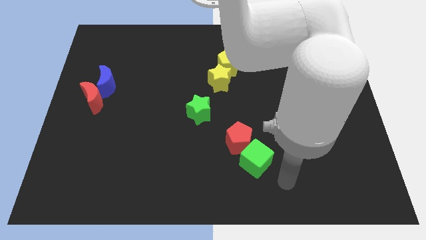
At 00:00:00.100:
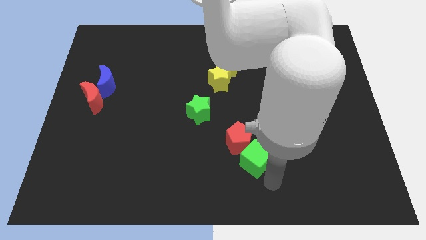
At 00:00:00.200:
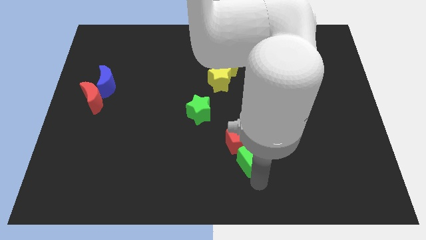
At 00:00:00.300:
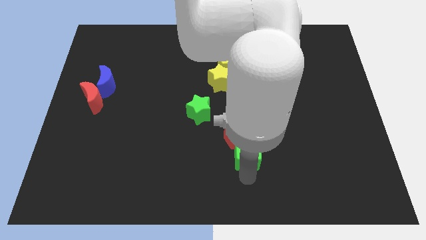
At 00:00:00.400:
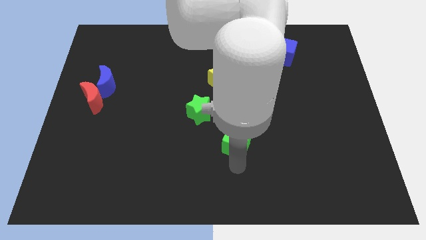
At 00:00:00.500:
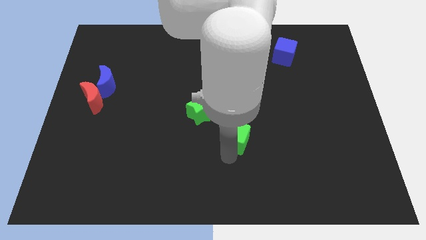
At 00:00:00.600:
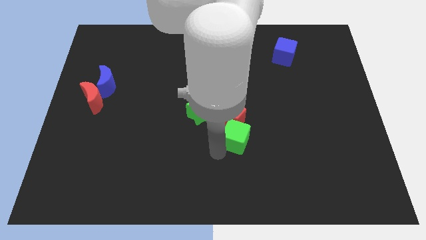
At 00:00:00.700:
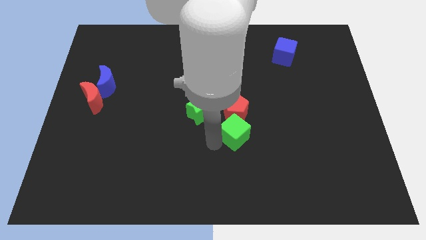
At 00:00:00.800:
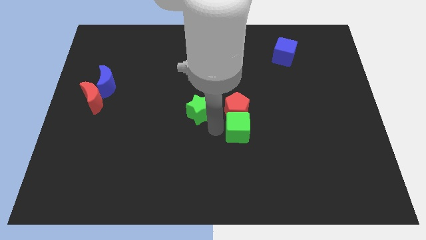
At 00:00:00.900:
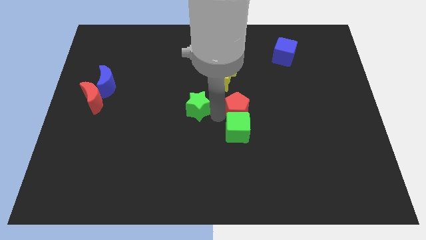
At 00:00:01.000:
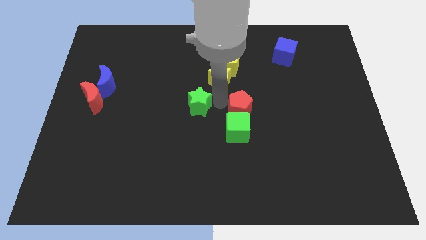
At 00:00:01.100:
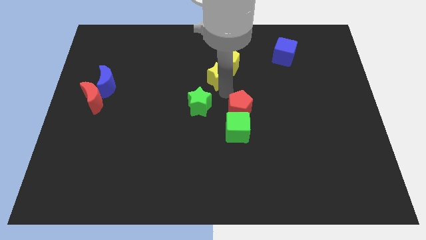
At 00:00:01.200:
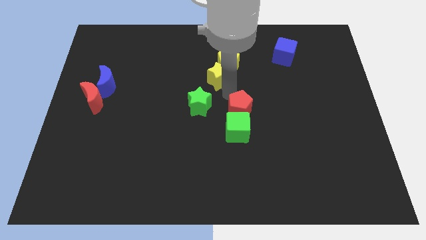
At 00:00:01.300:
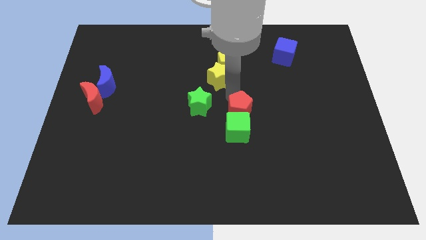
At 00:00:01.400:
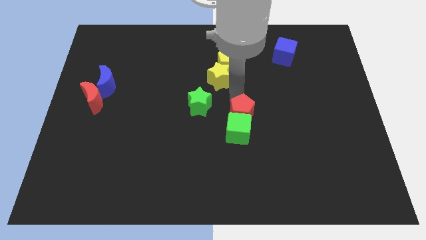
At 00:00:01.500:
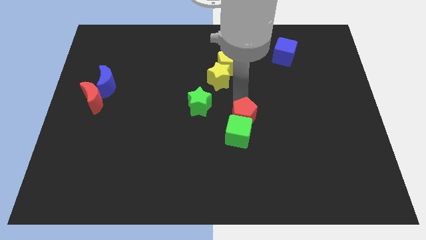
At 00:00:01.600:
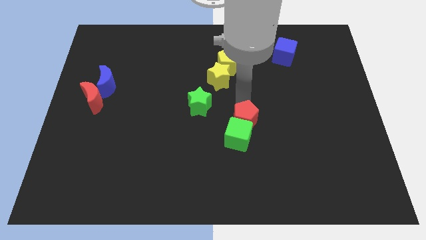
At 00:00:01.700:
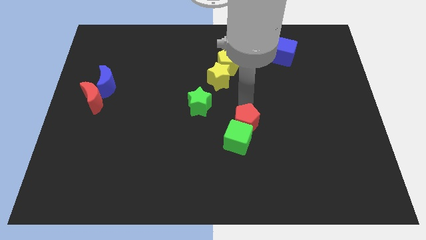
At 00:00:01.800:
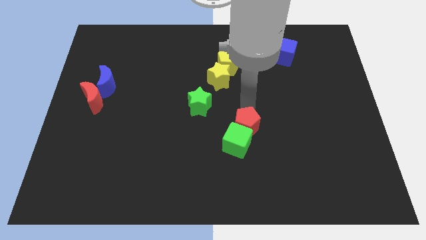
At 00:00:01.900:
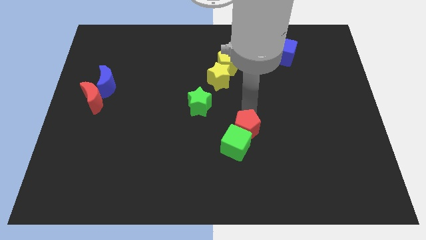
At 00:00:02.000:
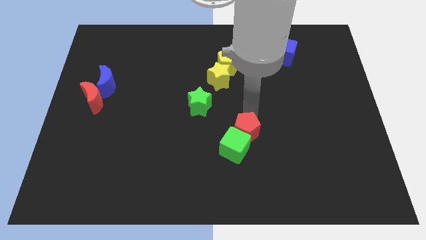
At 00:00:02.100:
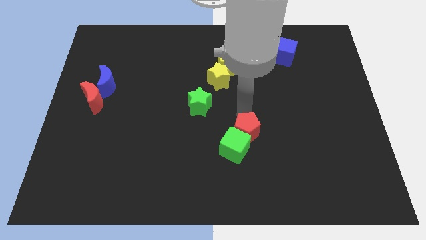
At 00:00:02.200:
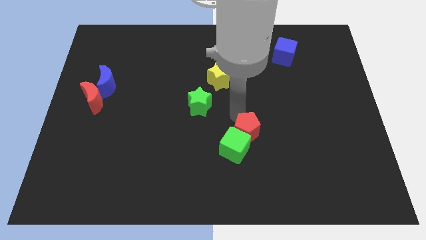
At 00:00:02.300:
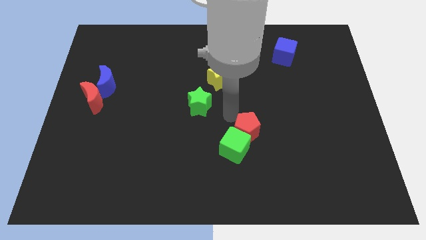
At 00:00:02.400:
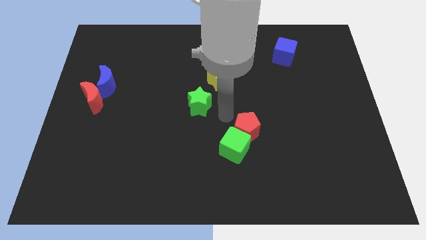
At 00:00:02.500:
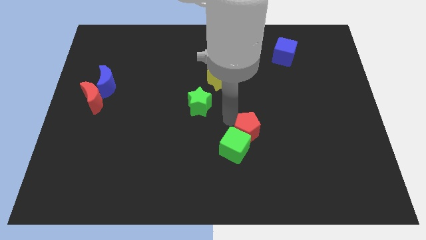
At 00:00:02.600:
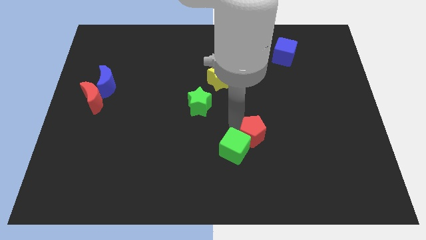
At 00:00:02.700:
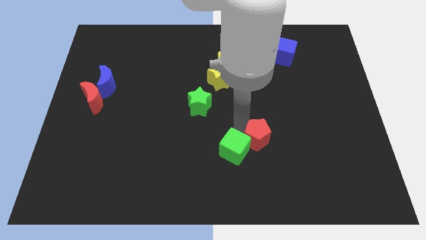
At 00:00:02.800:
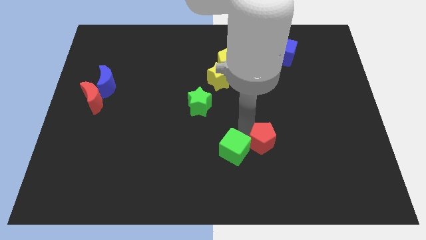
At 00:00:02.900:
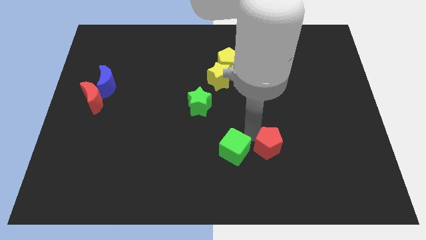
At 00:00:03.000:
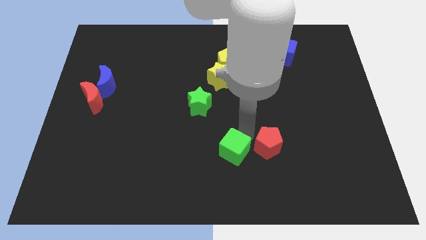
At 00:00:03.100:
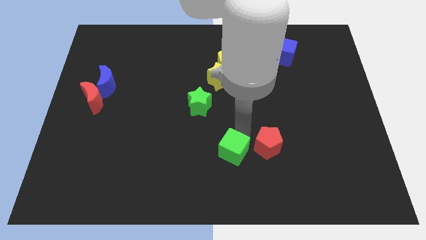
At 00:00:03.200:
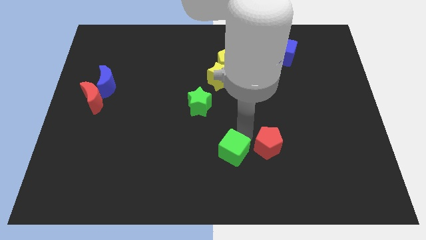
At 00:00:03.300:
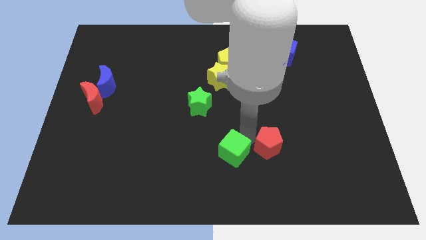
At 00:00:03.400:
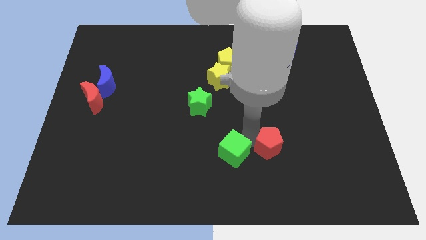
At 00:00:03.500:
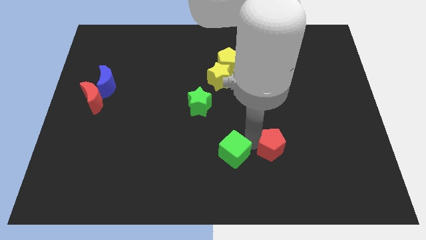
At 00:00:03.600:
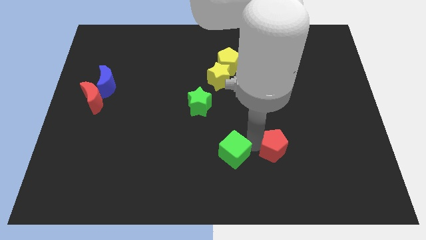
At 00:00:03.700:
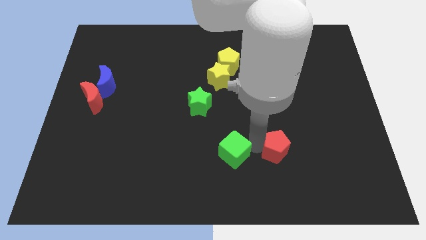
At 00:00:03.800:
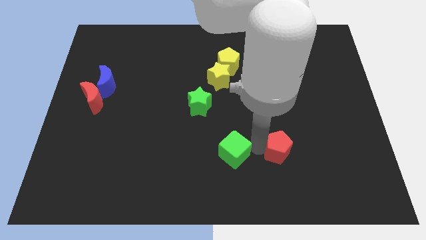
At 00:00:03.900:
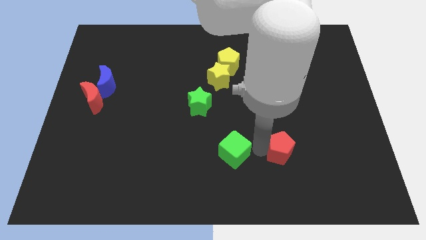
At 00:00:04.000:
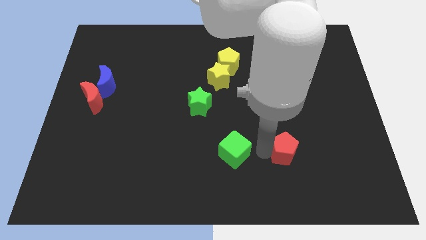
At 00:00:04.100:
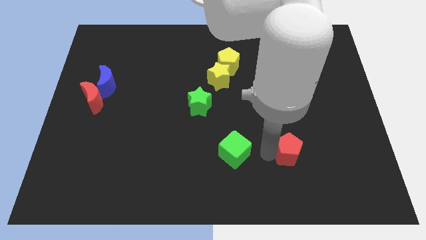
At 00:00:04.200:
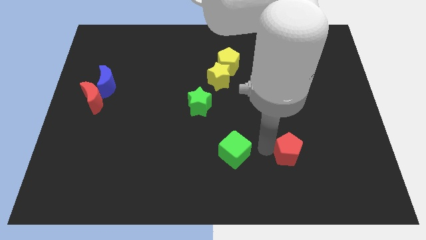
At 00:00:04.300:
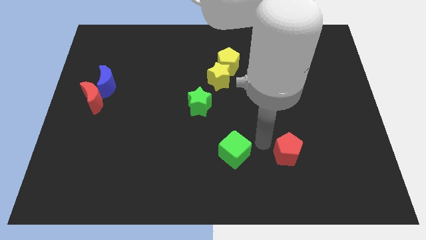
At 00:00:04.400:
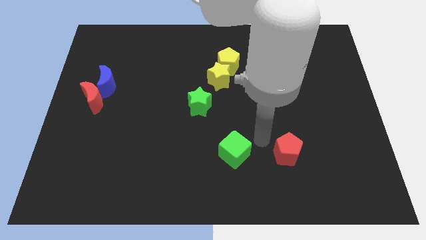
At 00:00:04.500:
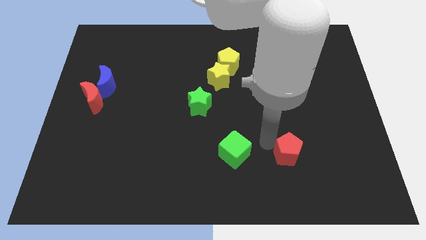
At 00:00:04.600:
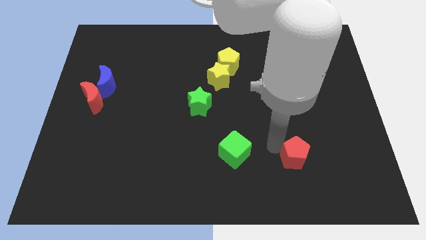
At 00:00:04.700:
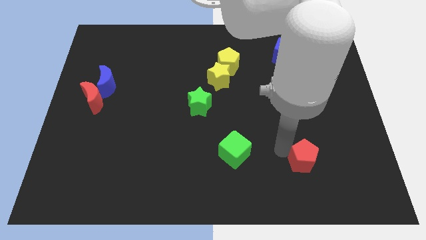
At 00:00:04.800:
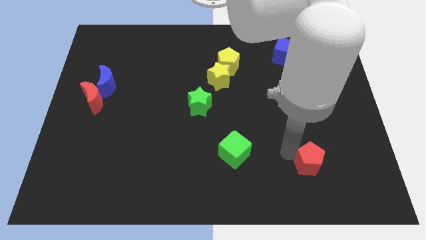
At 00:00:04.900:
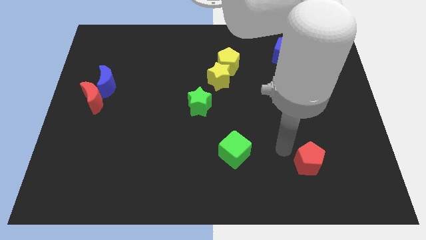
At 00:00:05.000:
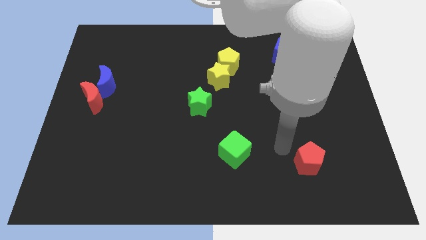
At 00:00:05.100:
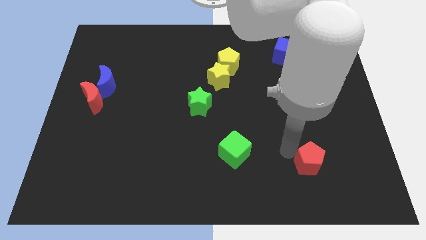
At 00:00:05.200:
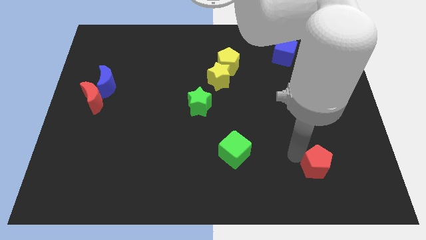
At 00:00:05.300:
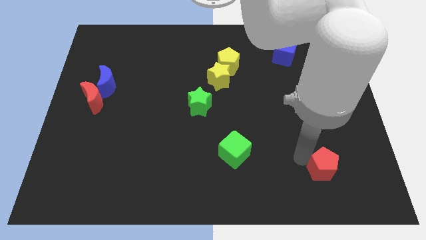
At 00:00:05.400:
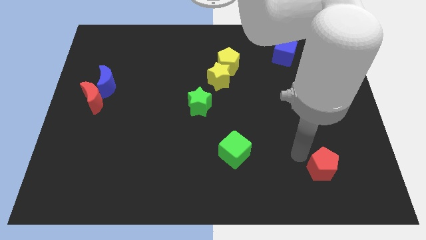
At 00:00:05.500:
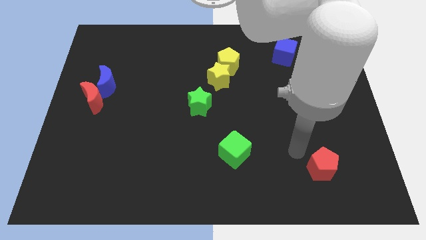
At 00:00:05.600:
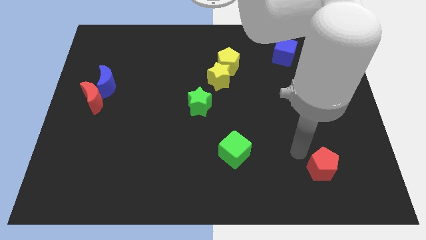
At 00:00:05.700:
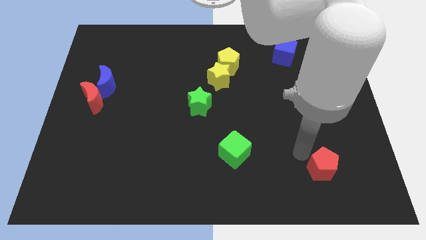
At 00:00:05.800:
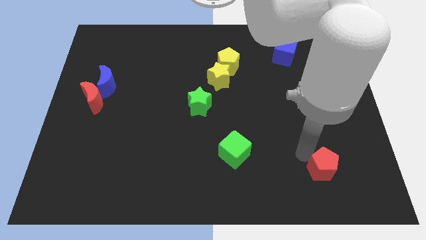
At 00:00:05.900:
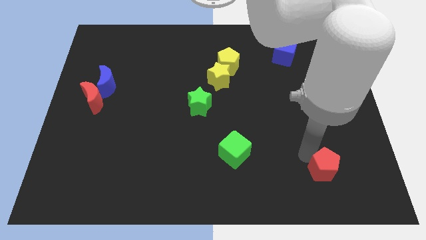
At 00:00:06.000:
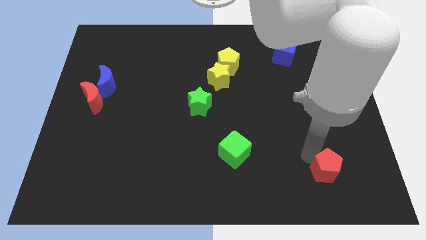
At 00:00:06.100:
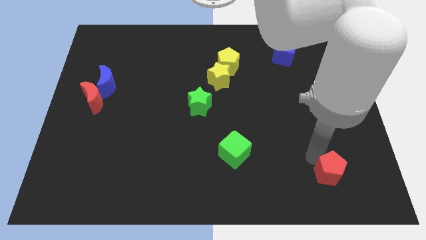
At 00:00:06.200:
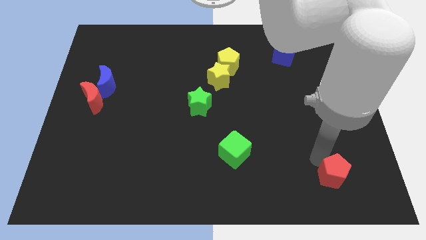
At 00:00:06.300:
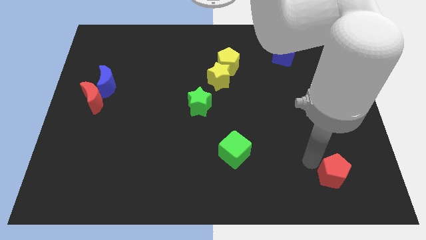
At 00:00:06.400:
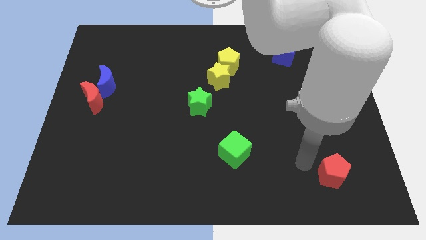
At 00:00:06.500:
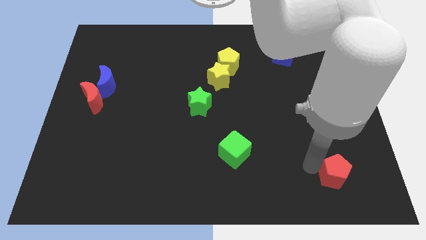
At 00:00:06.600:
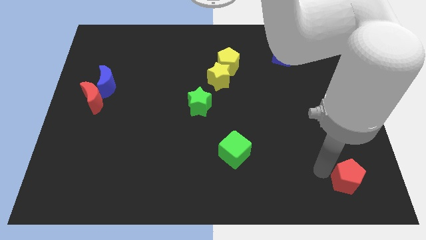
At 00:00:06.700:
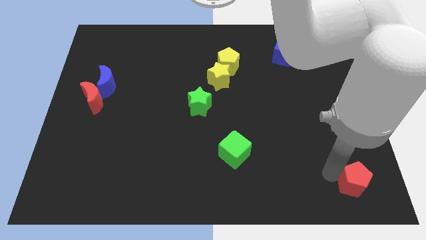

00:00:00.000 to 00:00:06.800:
move the red pentagon to the lower right corner
